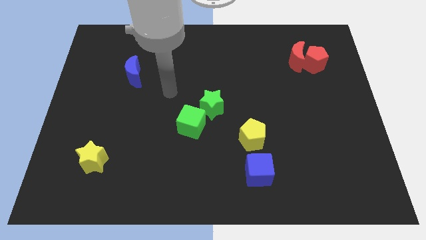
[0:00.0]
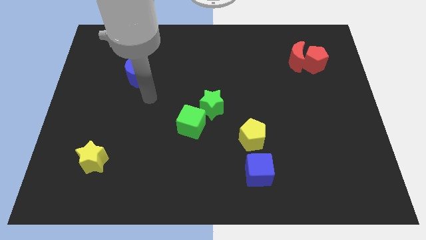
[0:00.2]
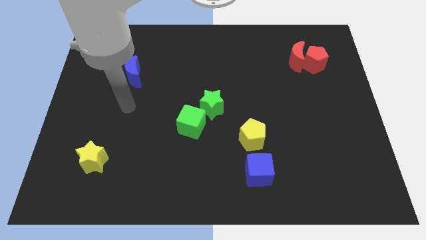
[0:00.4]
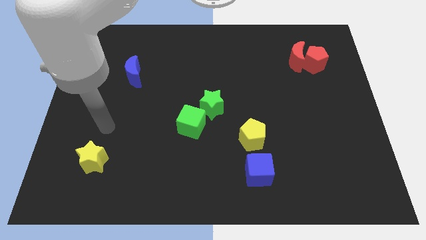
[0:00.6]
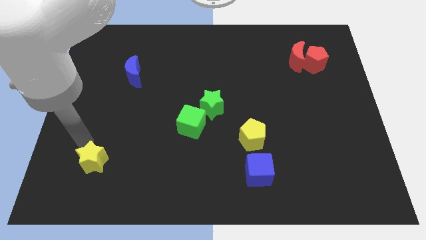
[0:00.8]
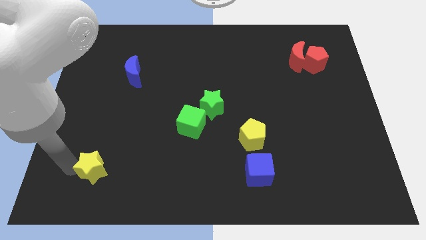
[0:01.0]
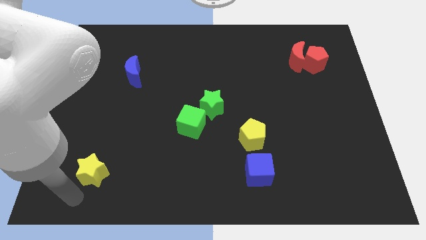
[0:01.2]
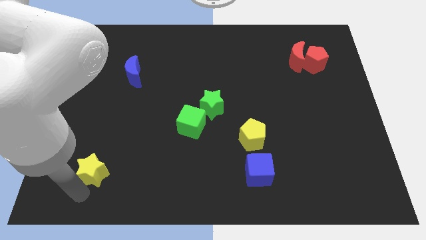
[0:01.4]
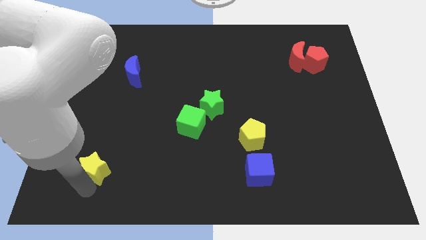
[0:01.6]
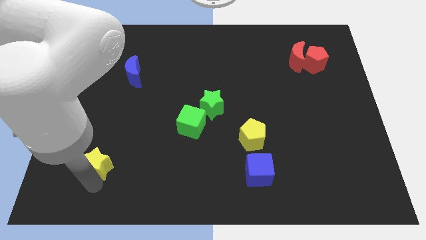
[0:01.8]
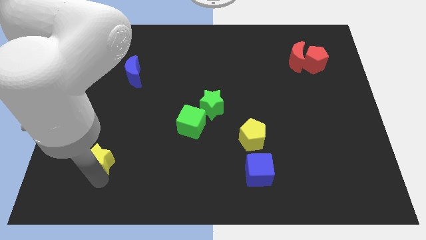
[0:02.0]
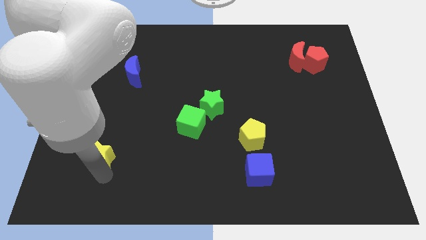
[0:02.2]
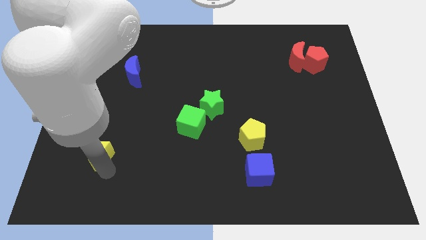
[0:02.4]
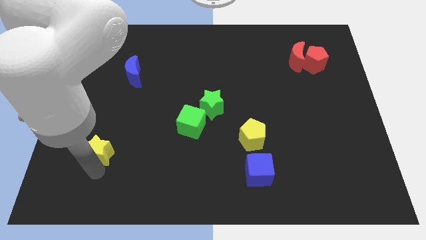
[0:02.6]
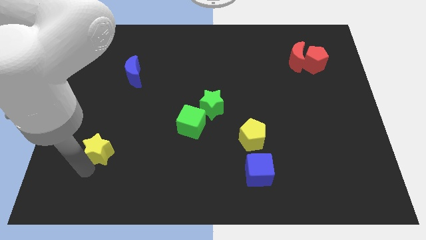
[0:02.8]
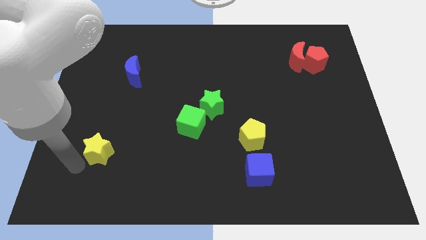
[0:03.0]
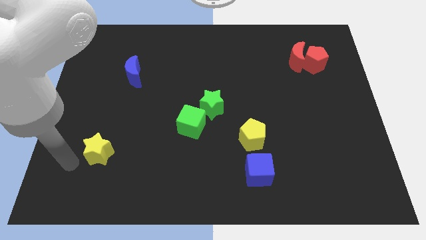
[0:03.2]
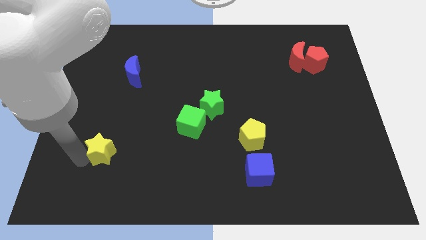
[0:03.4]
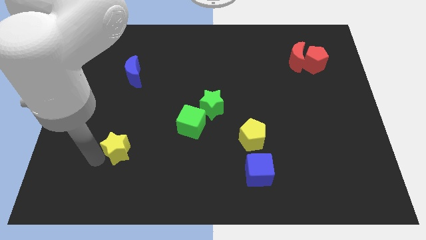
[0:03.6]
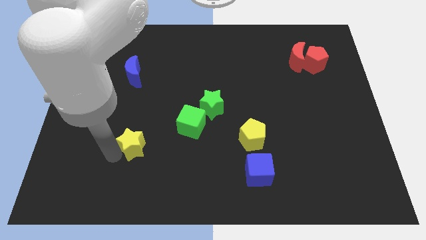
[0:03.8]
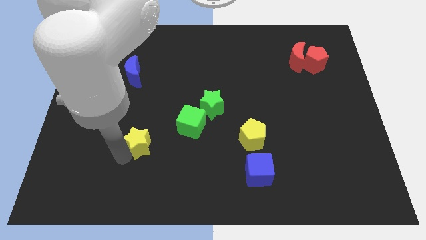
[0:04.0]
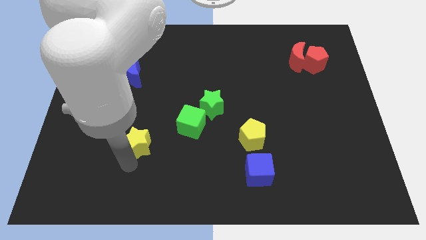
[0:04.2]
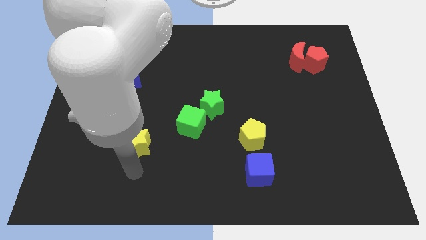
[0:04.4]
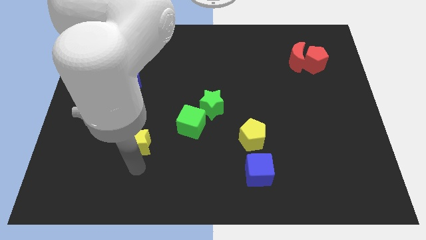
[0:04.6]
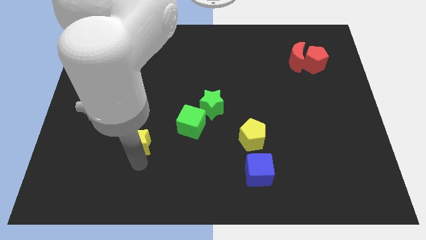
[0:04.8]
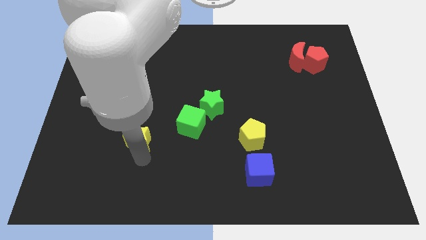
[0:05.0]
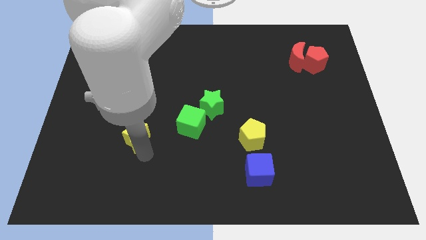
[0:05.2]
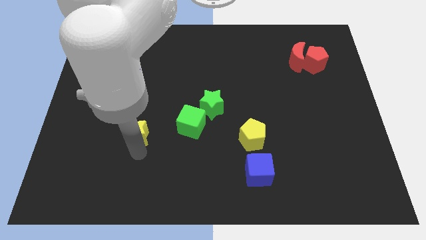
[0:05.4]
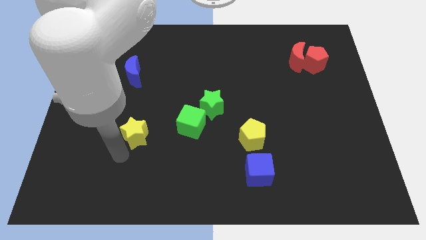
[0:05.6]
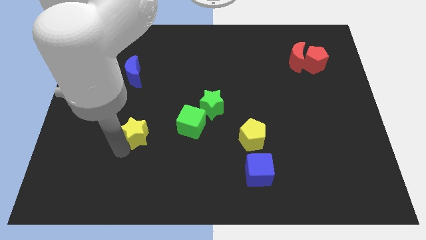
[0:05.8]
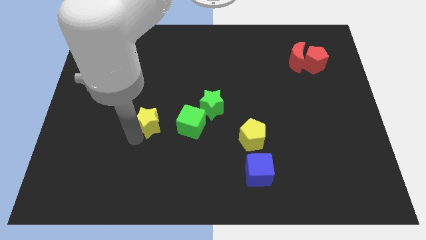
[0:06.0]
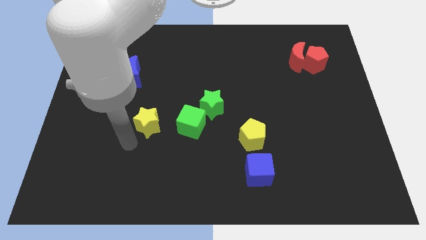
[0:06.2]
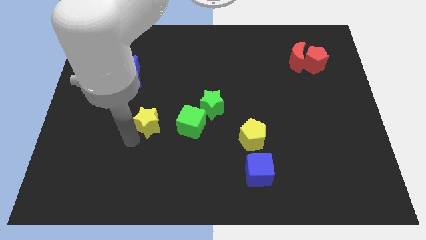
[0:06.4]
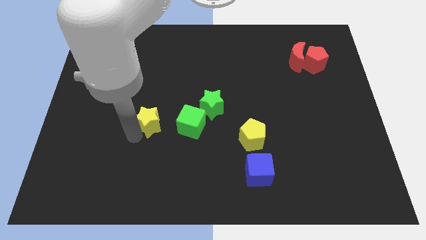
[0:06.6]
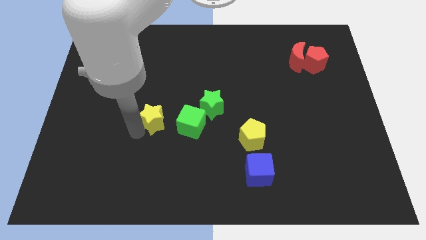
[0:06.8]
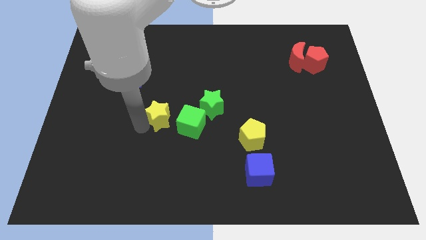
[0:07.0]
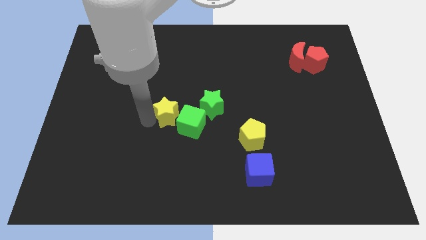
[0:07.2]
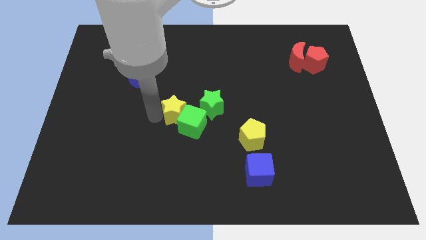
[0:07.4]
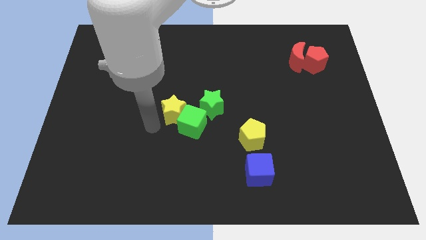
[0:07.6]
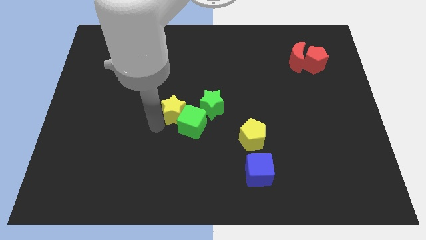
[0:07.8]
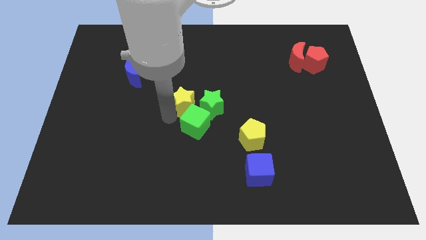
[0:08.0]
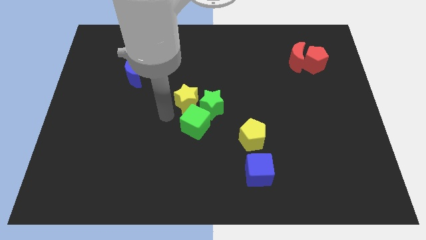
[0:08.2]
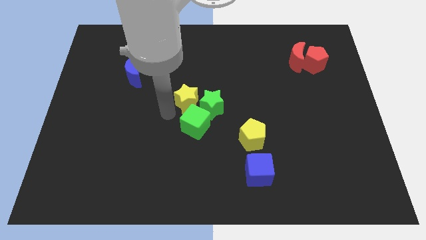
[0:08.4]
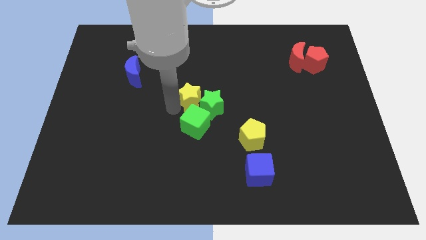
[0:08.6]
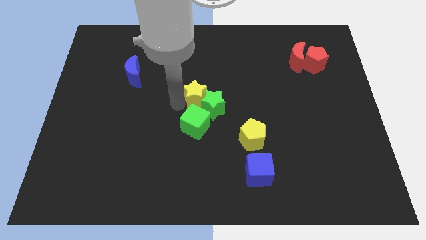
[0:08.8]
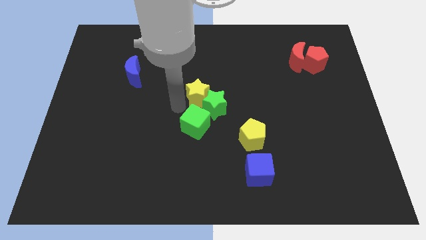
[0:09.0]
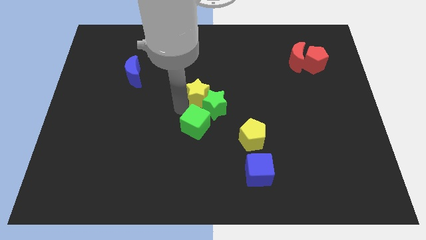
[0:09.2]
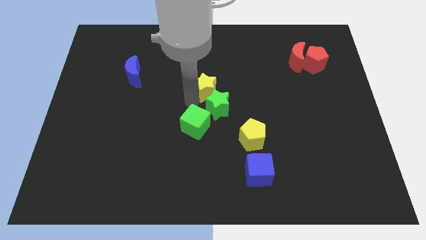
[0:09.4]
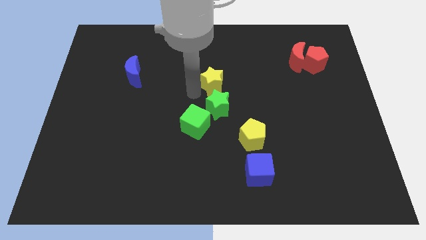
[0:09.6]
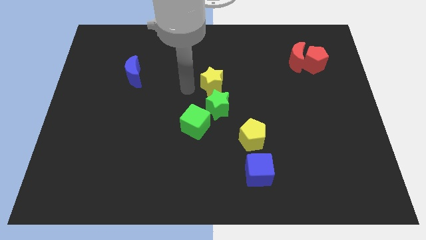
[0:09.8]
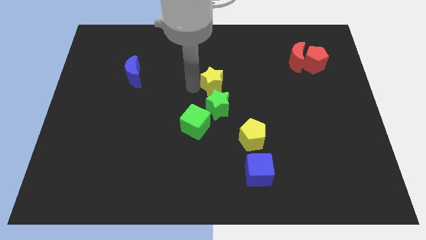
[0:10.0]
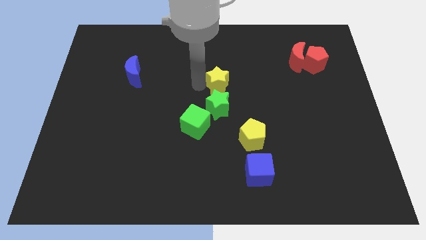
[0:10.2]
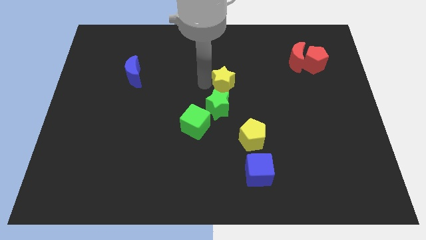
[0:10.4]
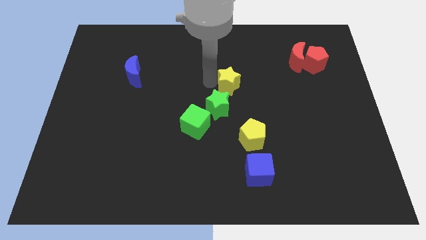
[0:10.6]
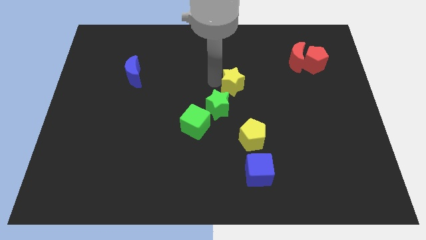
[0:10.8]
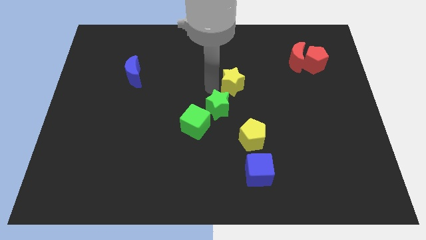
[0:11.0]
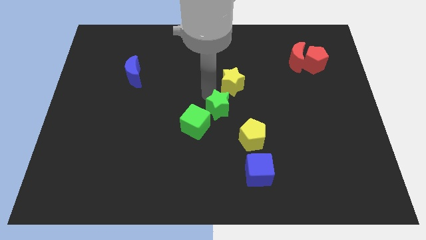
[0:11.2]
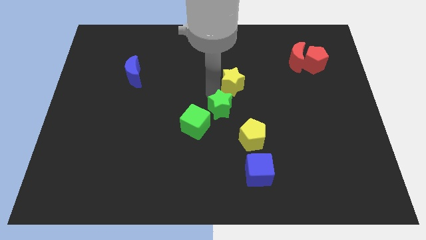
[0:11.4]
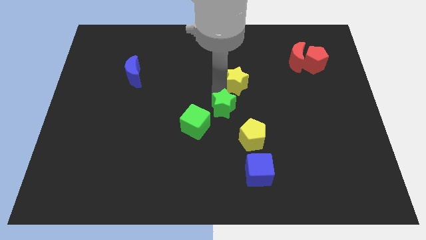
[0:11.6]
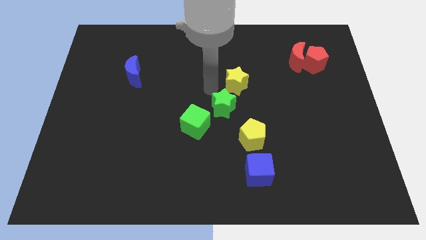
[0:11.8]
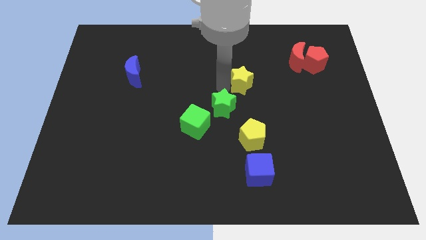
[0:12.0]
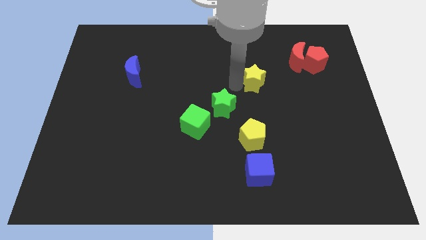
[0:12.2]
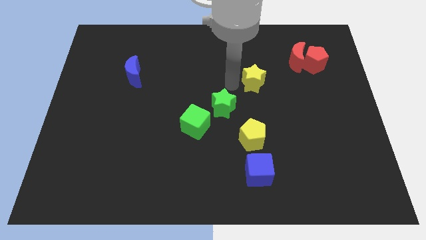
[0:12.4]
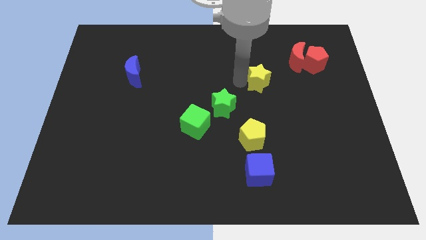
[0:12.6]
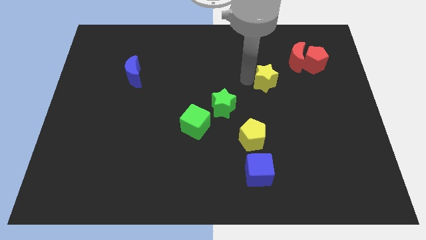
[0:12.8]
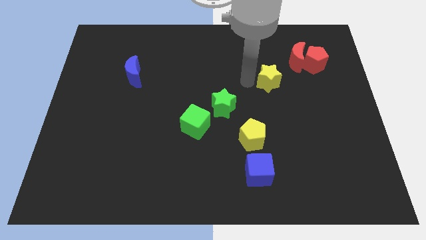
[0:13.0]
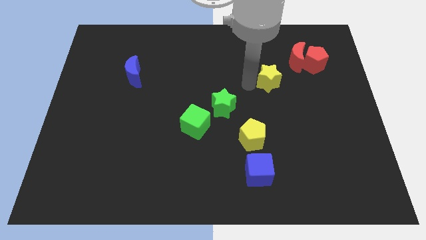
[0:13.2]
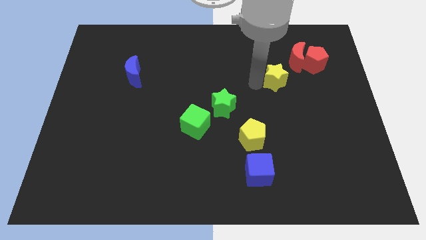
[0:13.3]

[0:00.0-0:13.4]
move the yellow star to the bottom left side of the red pentagon

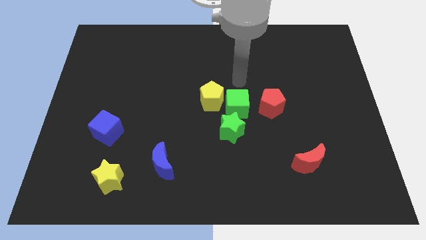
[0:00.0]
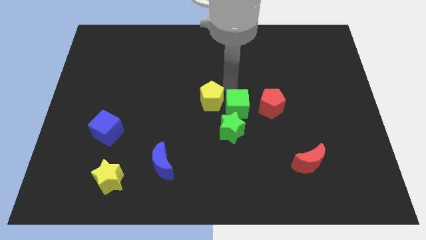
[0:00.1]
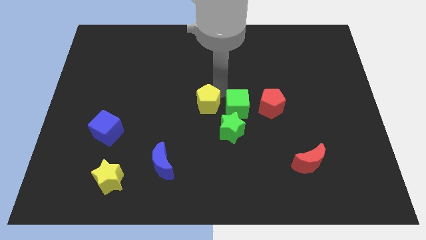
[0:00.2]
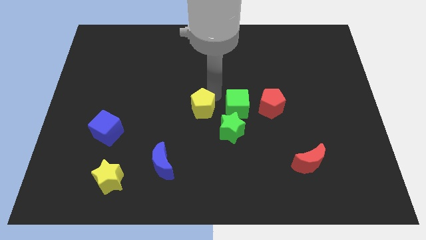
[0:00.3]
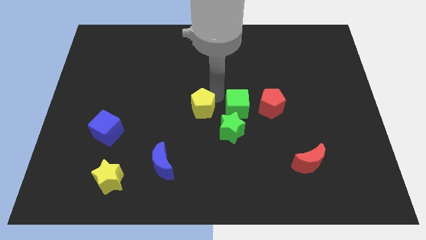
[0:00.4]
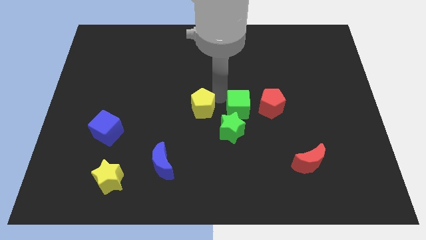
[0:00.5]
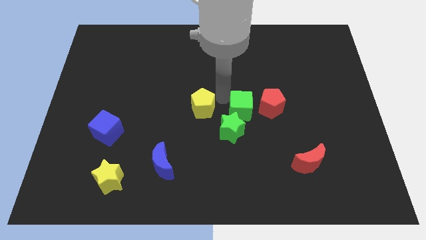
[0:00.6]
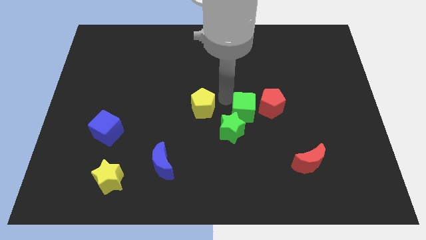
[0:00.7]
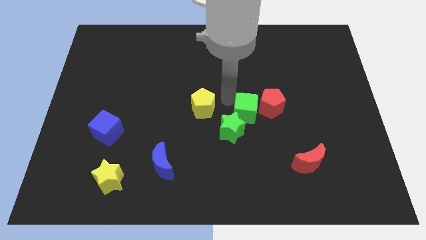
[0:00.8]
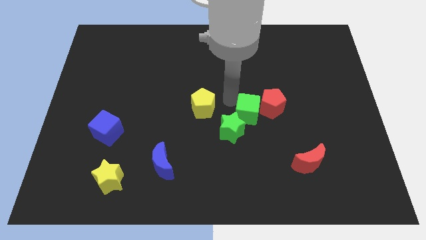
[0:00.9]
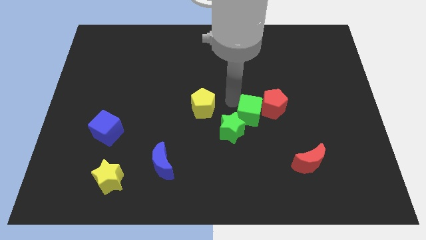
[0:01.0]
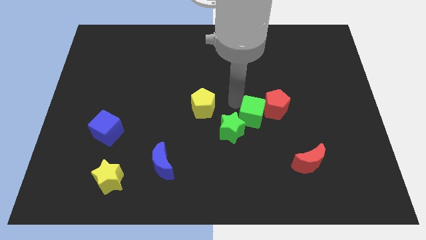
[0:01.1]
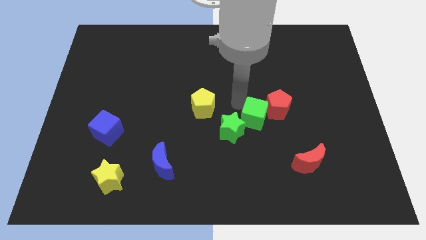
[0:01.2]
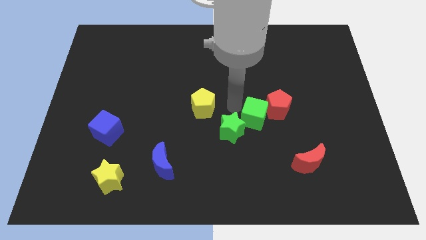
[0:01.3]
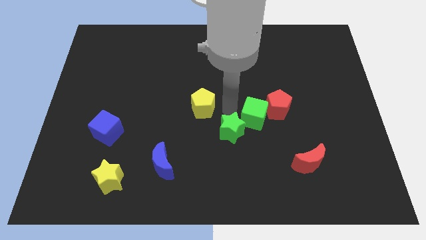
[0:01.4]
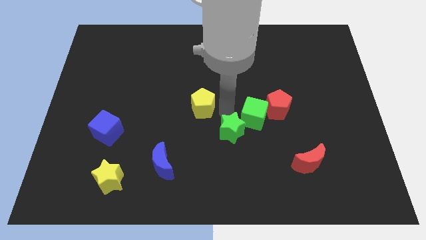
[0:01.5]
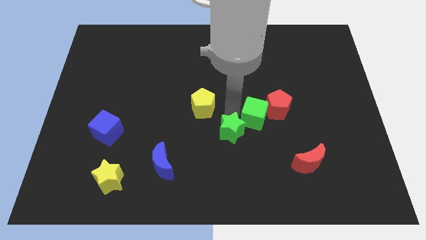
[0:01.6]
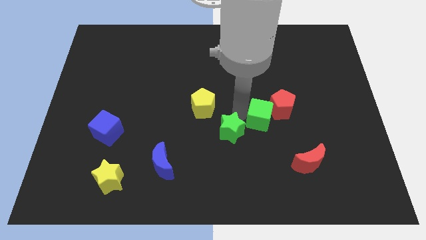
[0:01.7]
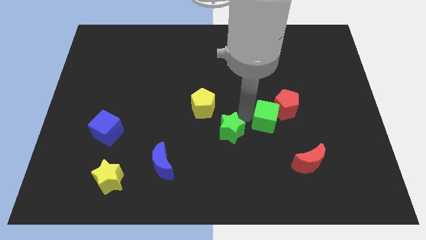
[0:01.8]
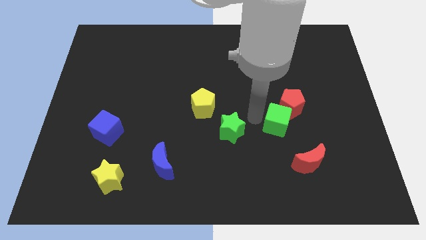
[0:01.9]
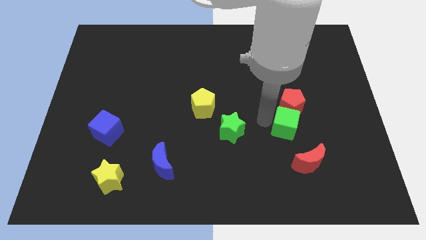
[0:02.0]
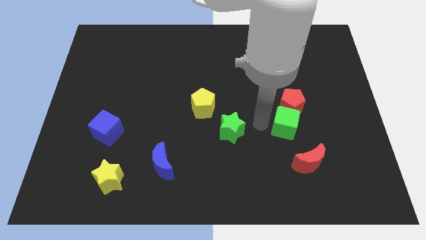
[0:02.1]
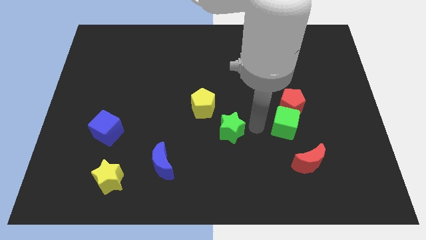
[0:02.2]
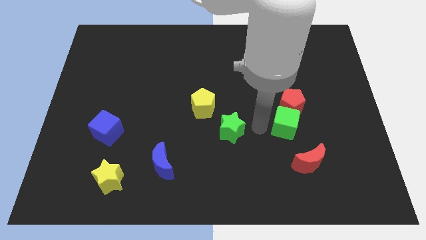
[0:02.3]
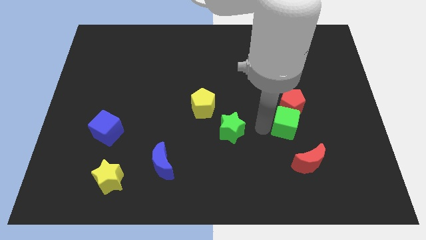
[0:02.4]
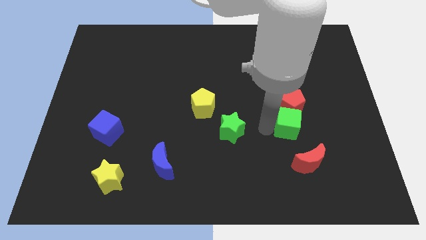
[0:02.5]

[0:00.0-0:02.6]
move the green cube to the bottom right of the red pentagon
